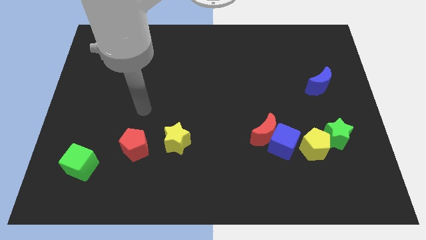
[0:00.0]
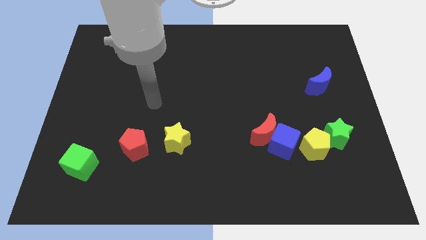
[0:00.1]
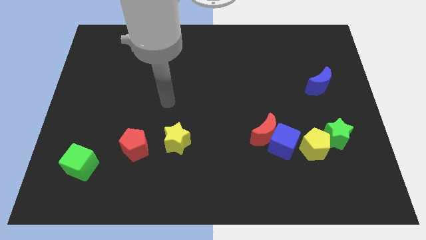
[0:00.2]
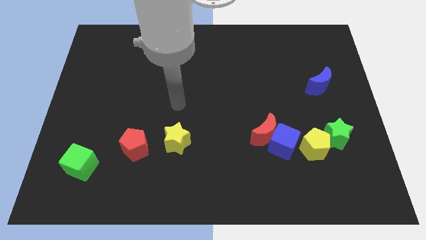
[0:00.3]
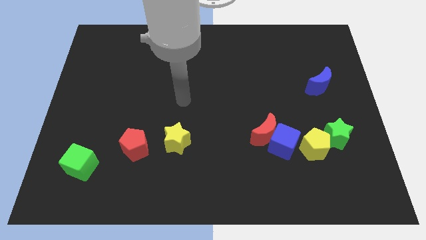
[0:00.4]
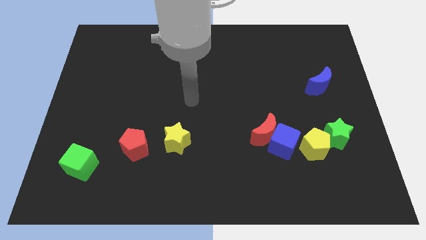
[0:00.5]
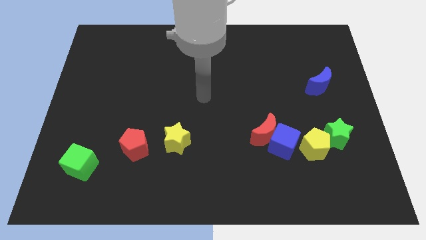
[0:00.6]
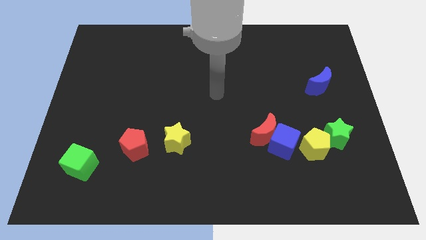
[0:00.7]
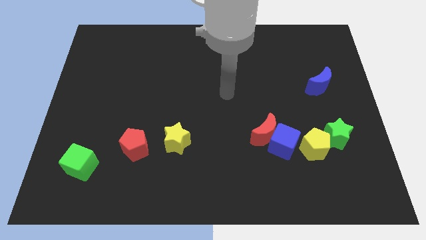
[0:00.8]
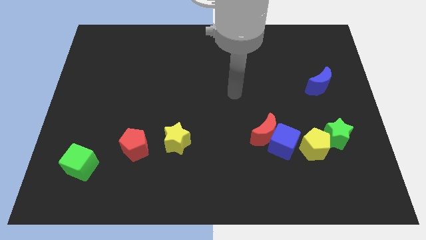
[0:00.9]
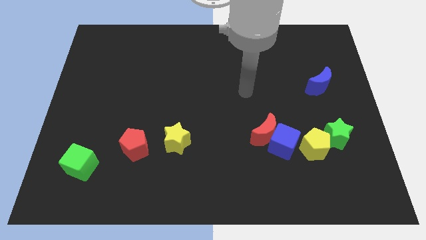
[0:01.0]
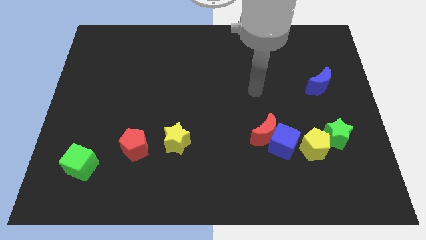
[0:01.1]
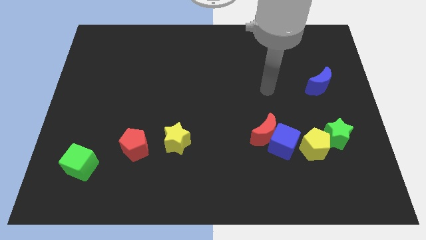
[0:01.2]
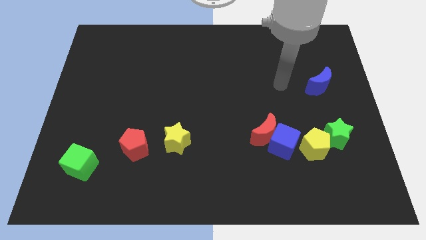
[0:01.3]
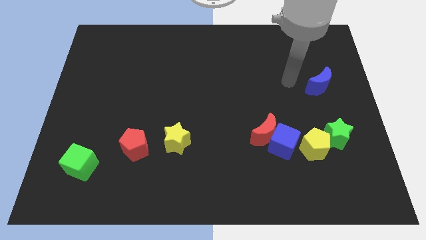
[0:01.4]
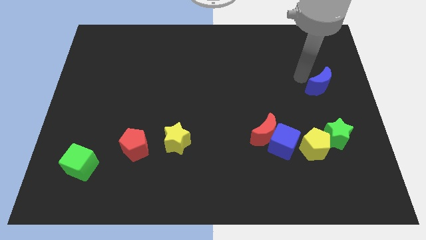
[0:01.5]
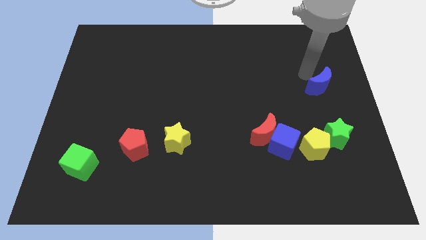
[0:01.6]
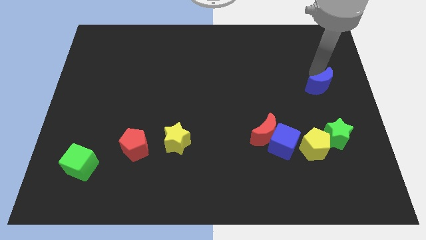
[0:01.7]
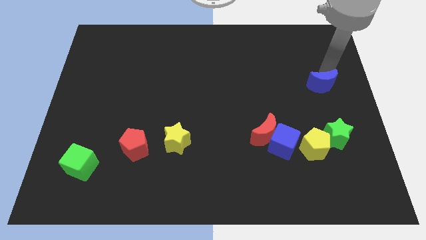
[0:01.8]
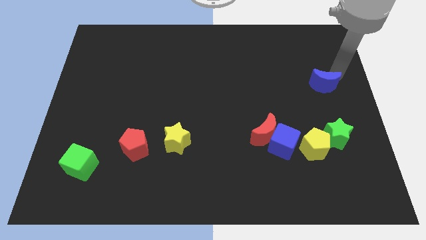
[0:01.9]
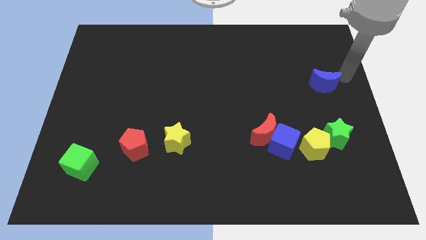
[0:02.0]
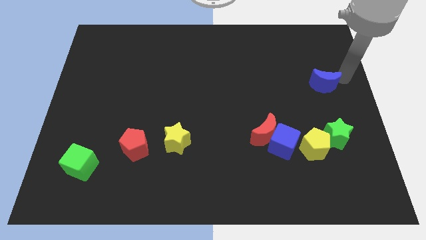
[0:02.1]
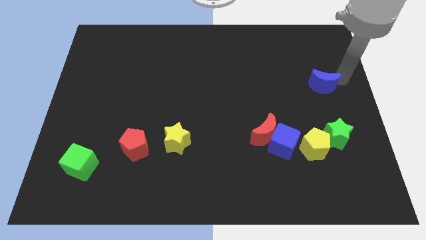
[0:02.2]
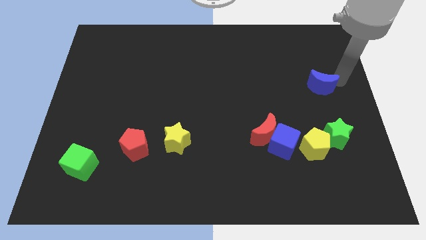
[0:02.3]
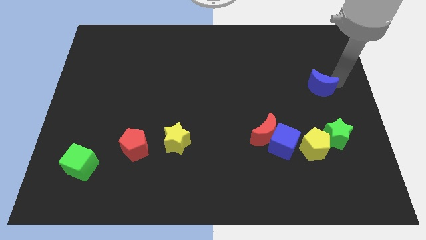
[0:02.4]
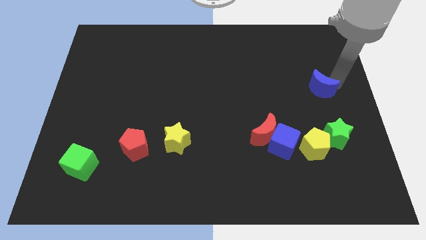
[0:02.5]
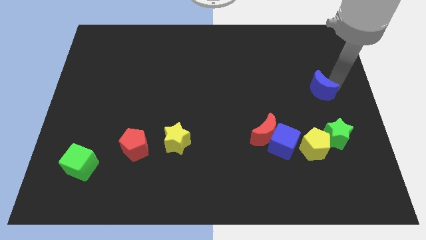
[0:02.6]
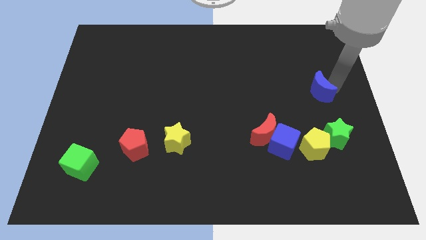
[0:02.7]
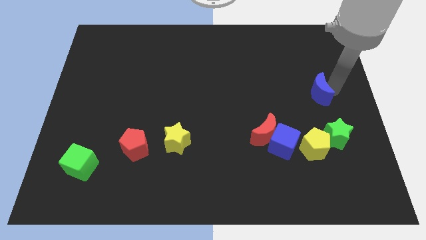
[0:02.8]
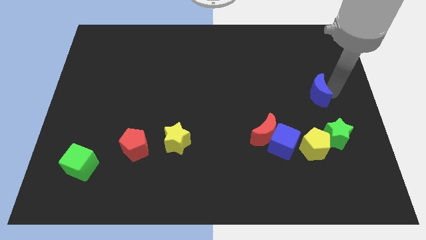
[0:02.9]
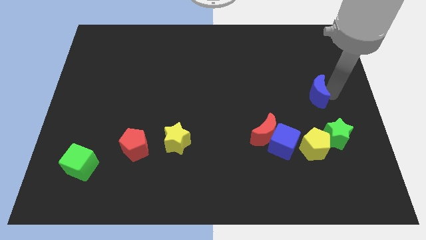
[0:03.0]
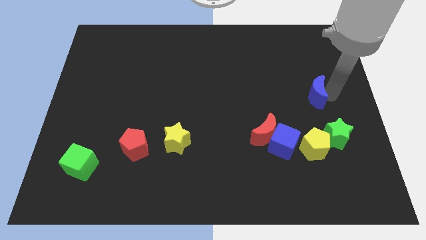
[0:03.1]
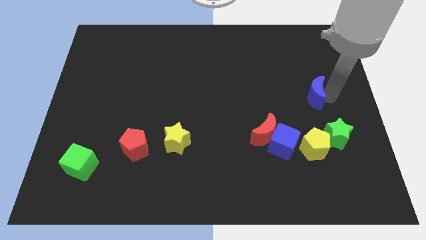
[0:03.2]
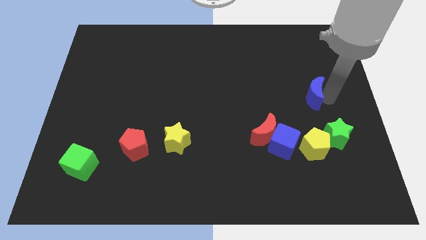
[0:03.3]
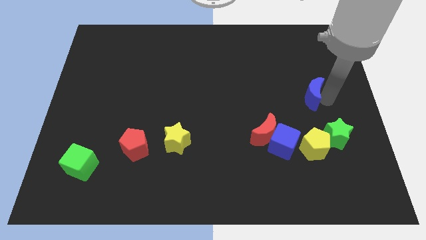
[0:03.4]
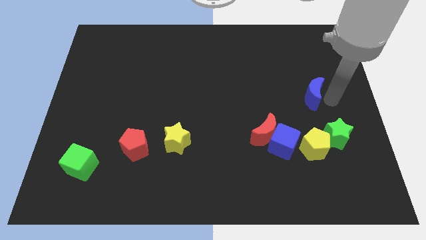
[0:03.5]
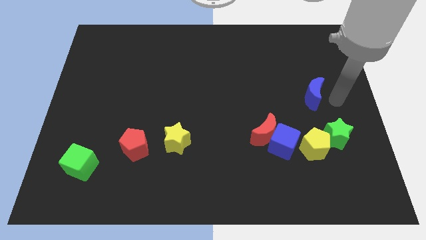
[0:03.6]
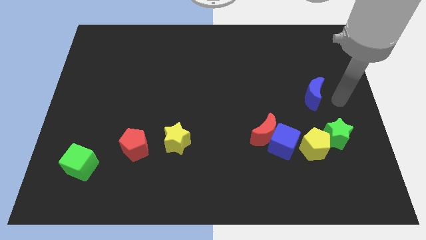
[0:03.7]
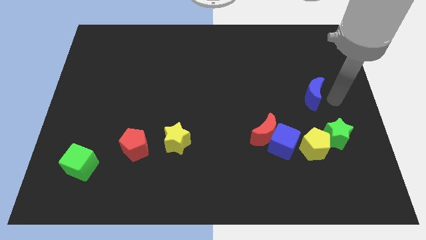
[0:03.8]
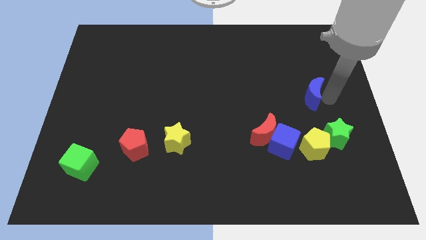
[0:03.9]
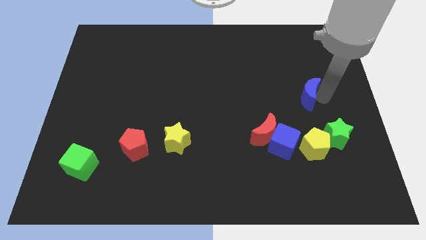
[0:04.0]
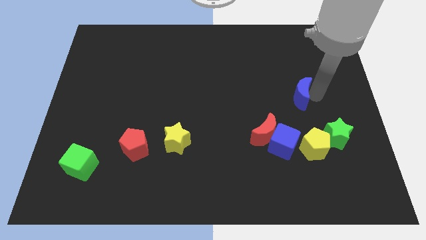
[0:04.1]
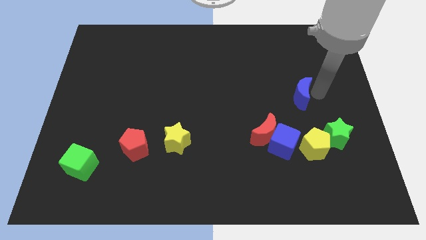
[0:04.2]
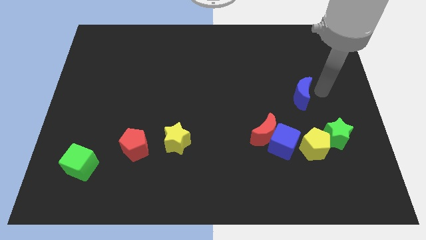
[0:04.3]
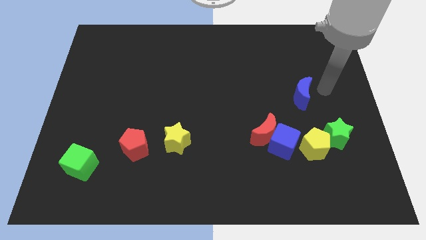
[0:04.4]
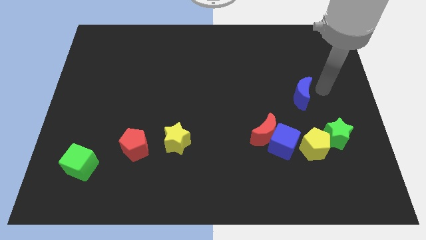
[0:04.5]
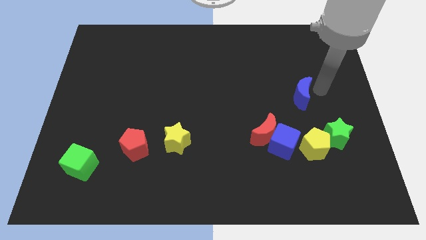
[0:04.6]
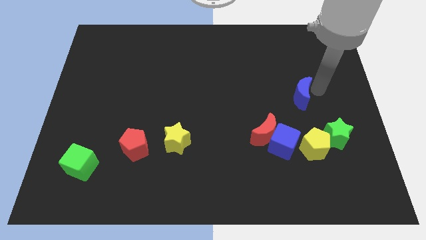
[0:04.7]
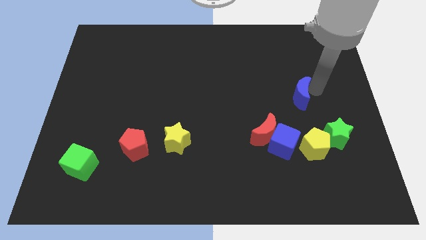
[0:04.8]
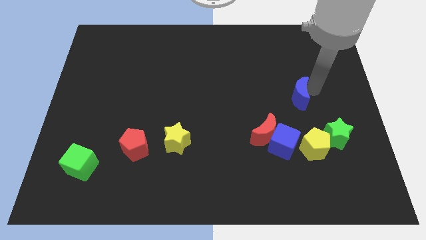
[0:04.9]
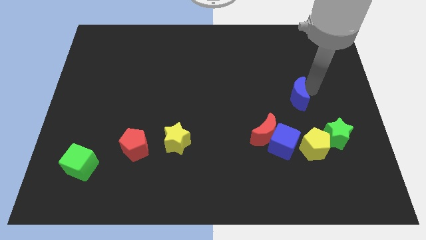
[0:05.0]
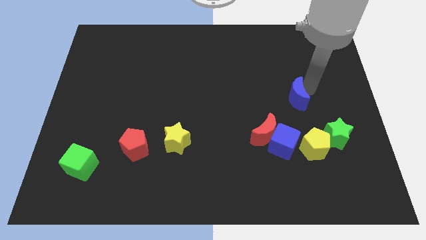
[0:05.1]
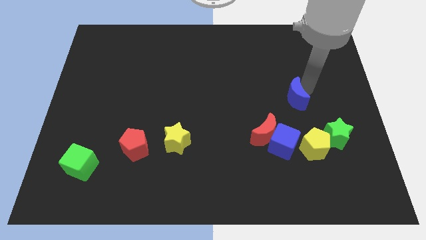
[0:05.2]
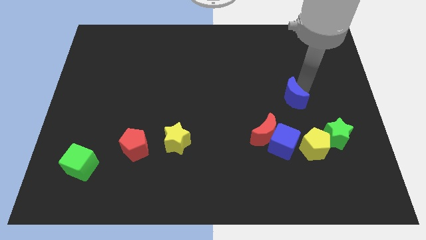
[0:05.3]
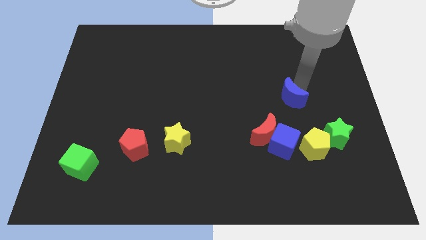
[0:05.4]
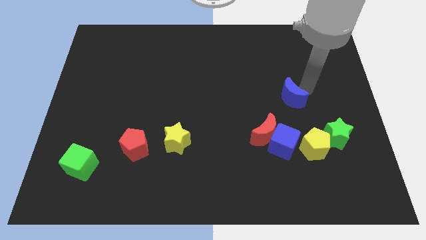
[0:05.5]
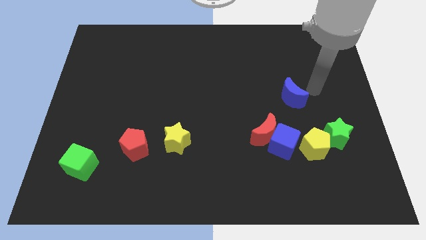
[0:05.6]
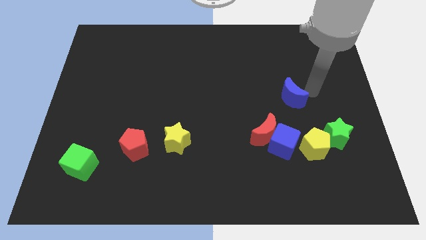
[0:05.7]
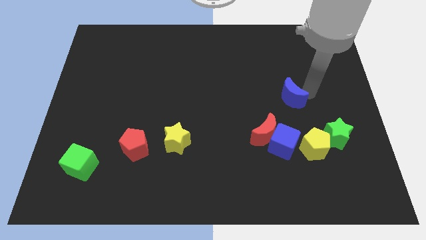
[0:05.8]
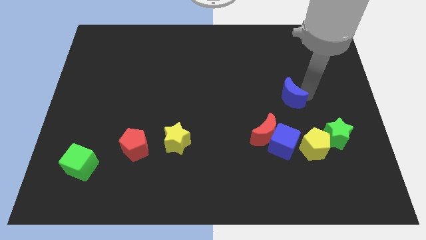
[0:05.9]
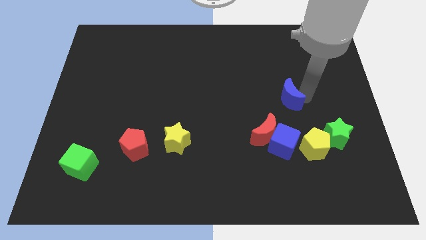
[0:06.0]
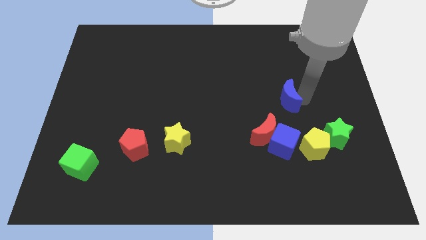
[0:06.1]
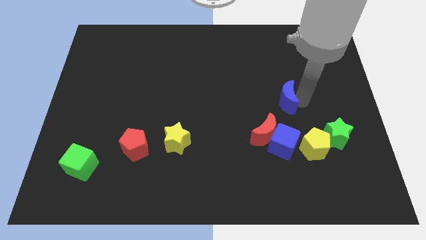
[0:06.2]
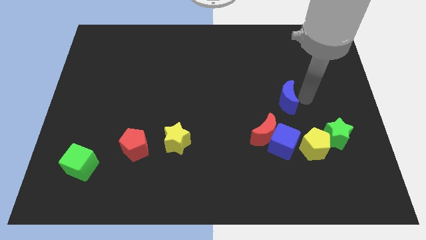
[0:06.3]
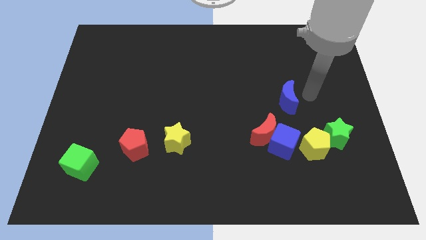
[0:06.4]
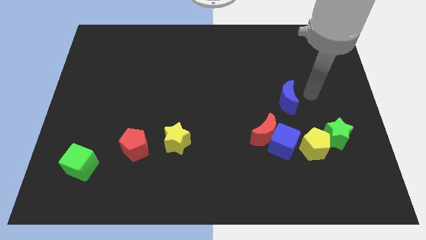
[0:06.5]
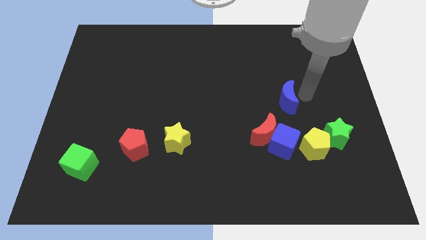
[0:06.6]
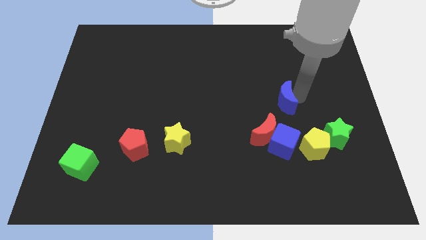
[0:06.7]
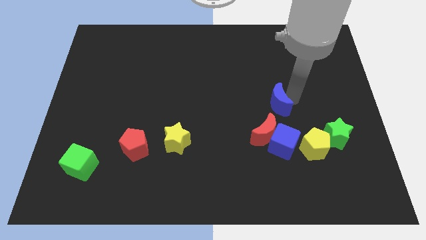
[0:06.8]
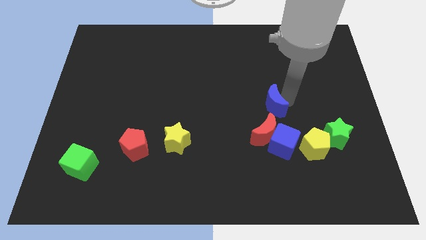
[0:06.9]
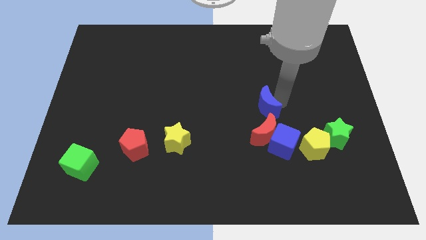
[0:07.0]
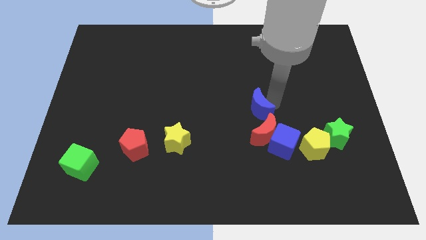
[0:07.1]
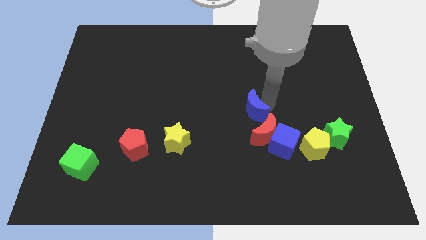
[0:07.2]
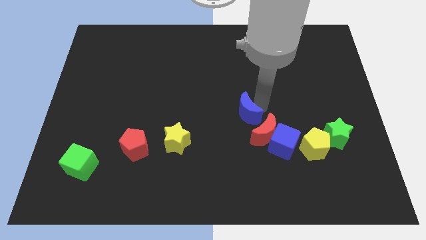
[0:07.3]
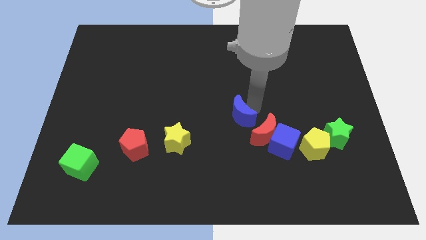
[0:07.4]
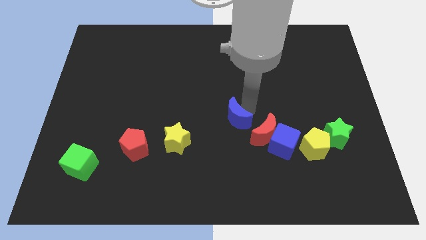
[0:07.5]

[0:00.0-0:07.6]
push the blue moon to the left side of the red moon

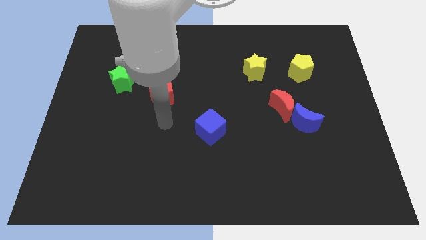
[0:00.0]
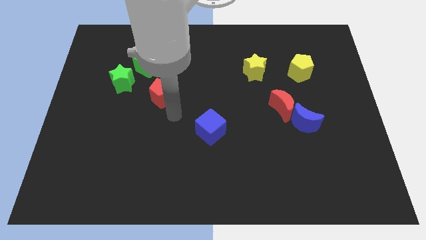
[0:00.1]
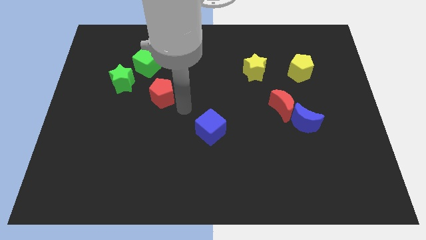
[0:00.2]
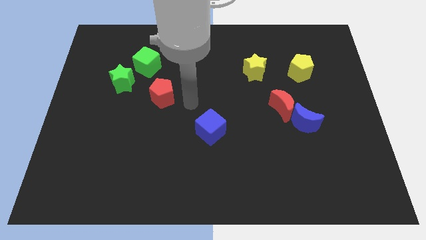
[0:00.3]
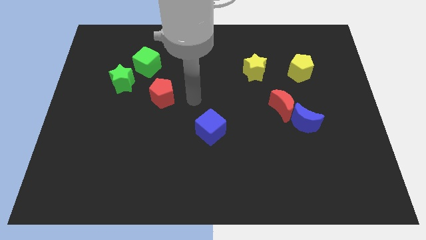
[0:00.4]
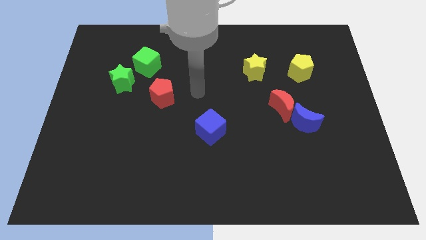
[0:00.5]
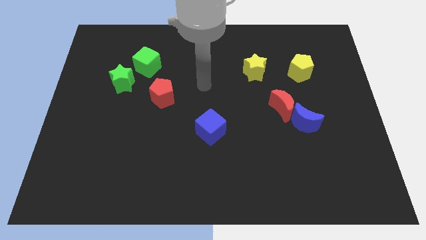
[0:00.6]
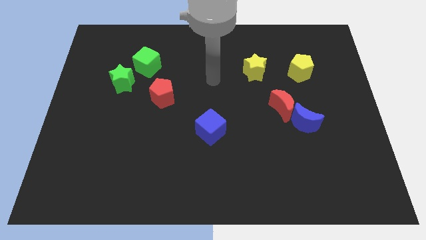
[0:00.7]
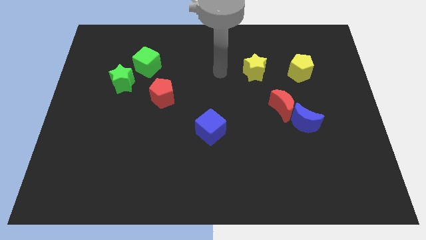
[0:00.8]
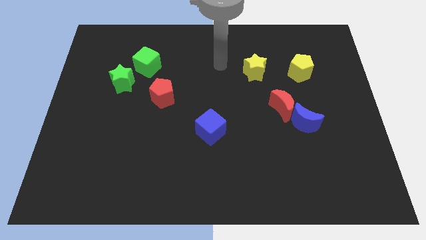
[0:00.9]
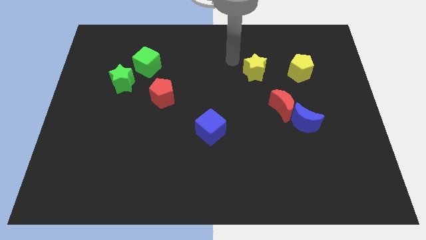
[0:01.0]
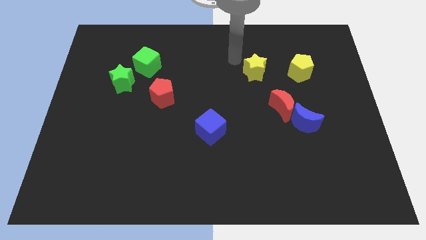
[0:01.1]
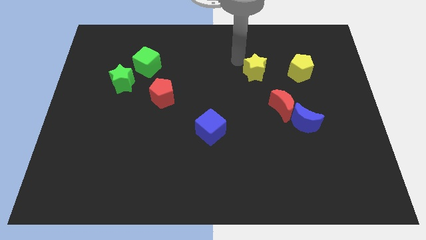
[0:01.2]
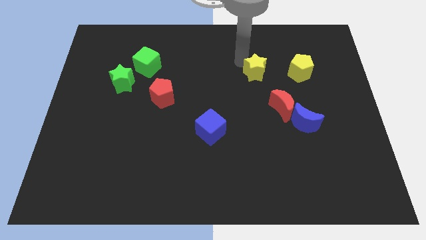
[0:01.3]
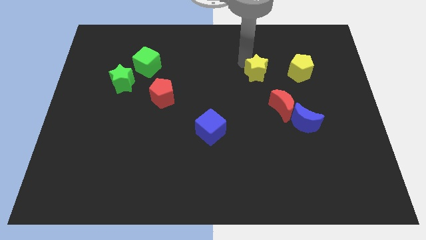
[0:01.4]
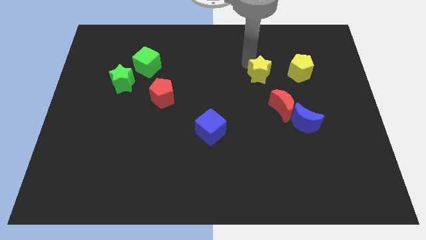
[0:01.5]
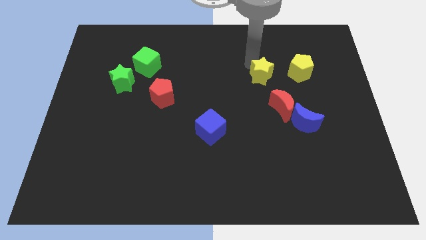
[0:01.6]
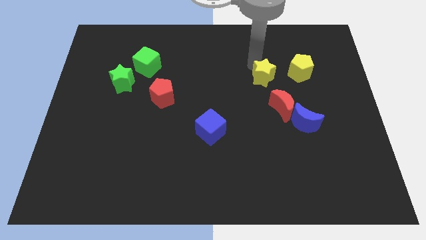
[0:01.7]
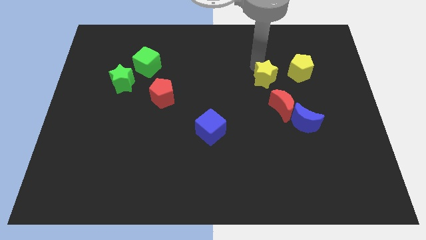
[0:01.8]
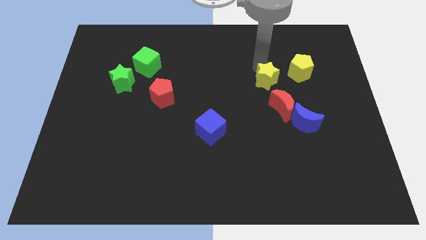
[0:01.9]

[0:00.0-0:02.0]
put the yellow star diagonally down and to the left of the yellow pentagon
